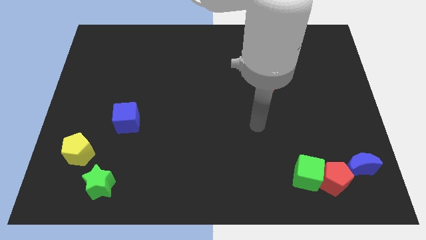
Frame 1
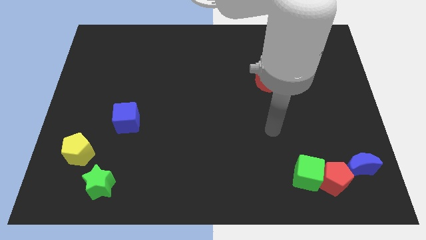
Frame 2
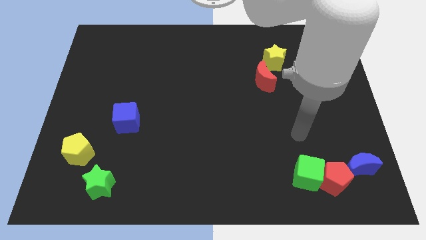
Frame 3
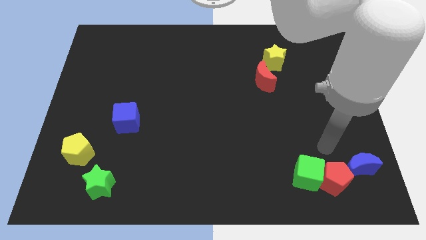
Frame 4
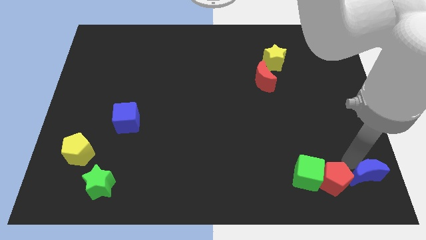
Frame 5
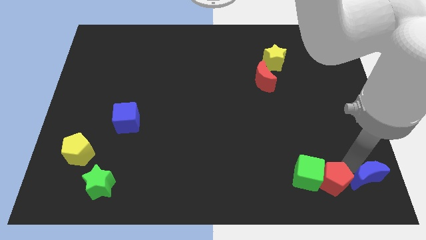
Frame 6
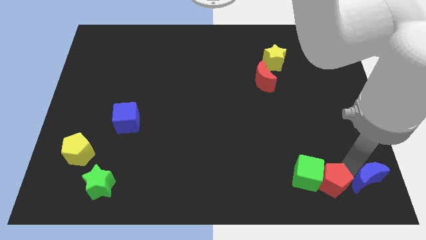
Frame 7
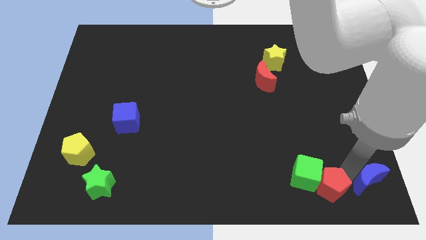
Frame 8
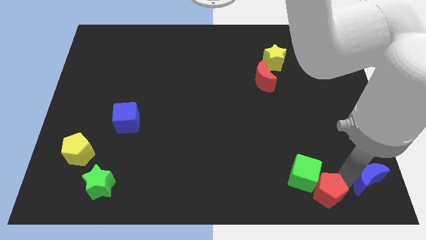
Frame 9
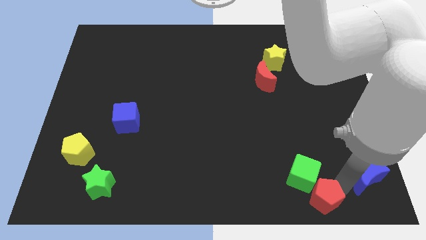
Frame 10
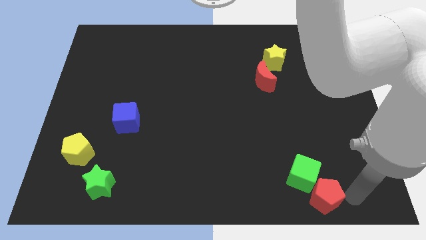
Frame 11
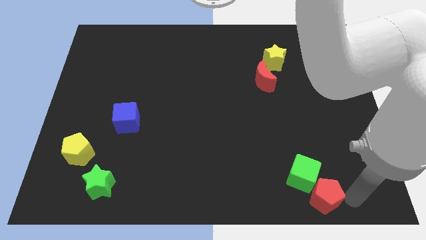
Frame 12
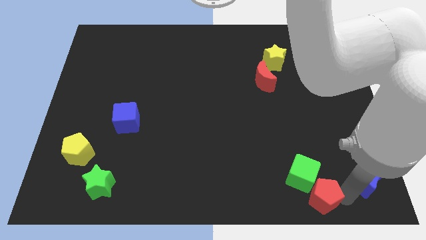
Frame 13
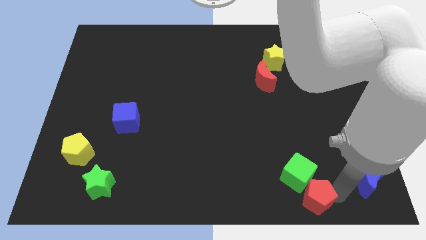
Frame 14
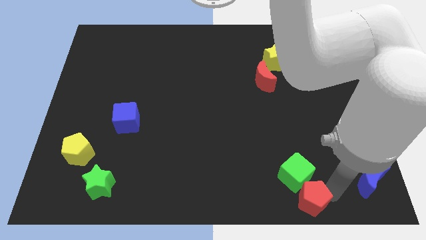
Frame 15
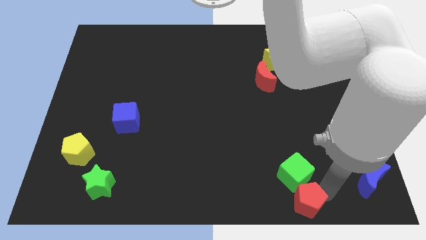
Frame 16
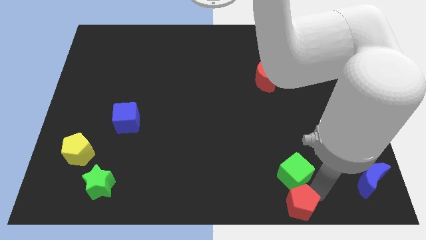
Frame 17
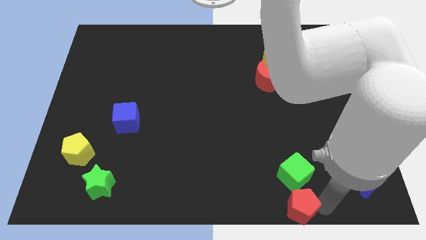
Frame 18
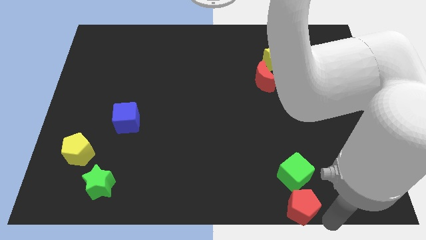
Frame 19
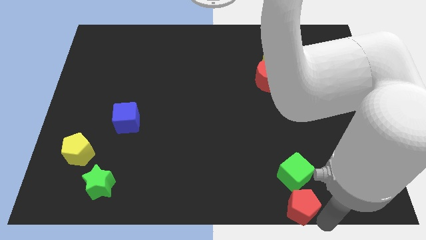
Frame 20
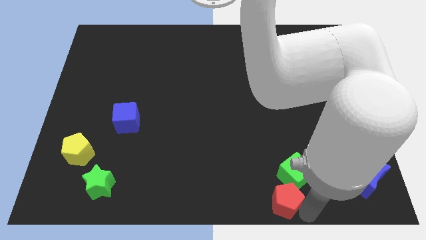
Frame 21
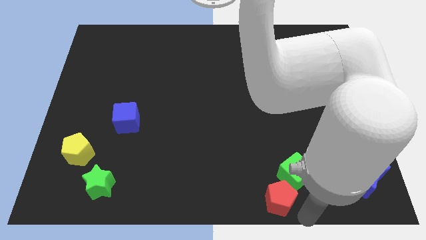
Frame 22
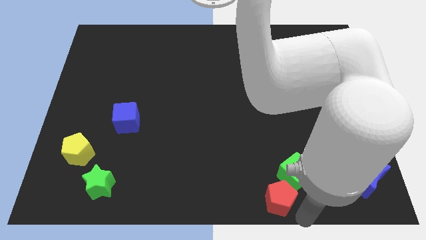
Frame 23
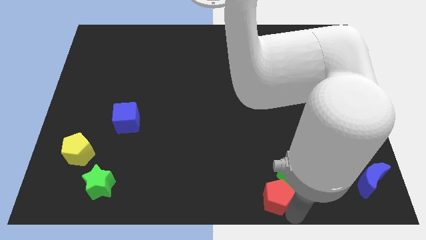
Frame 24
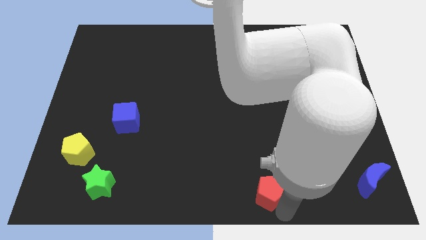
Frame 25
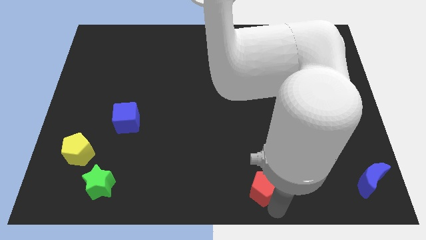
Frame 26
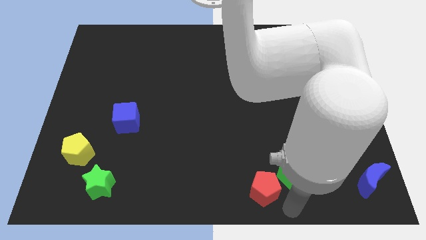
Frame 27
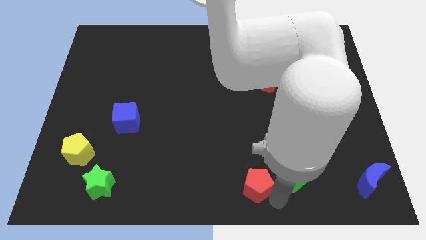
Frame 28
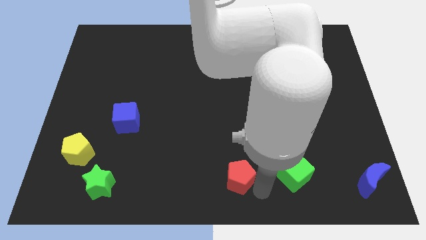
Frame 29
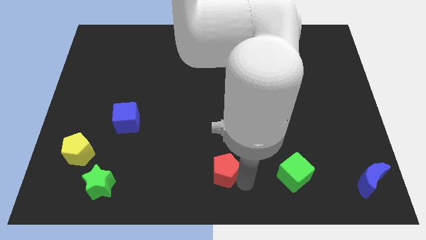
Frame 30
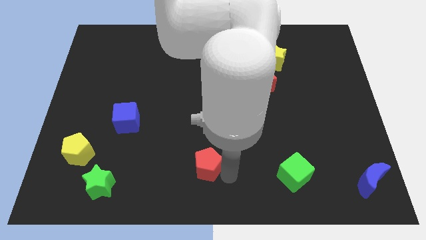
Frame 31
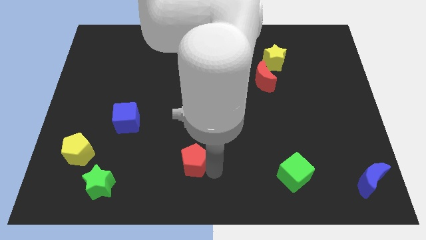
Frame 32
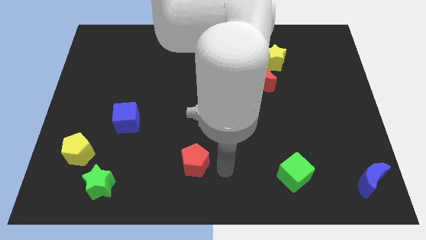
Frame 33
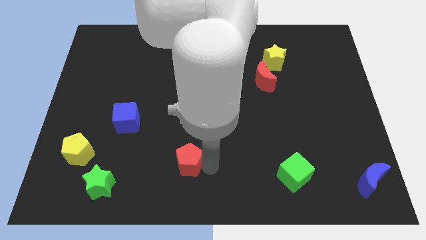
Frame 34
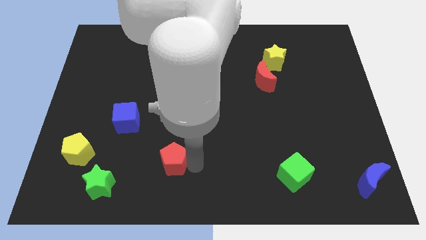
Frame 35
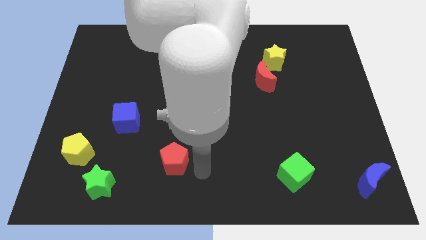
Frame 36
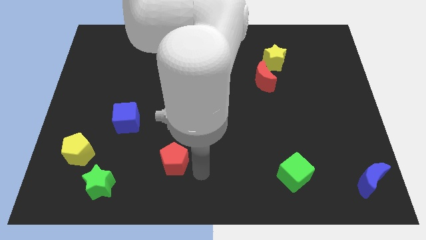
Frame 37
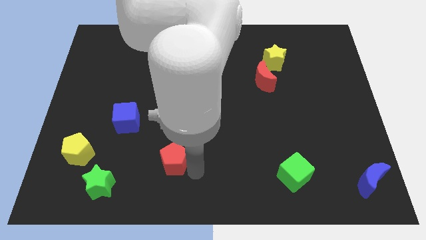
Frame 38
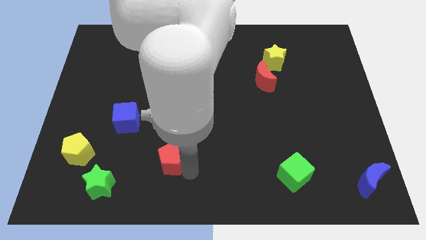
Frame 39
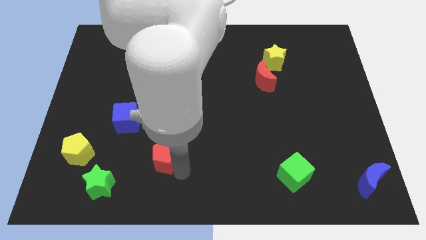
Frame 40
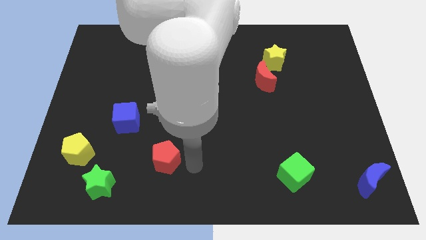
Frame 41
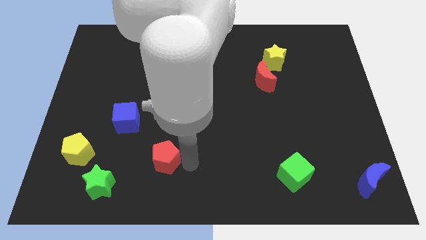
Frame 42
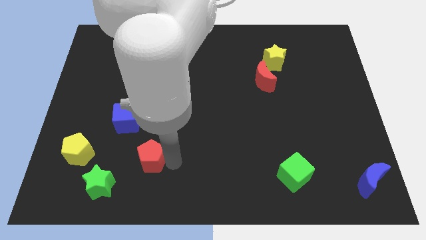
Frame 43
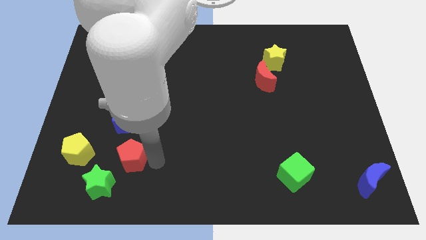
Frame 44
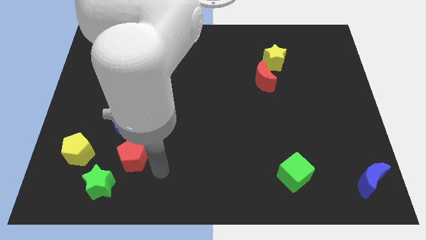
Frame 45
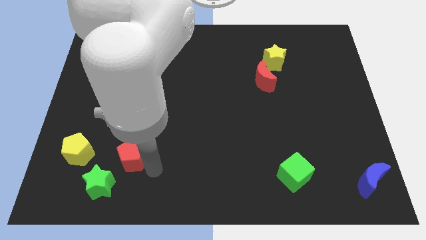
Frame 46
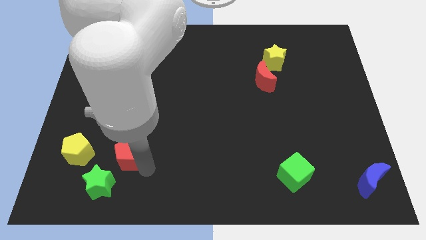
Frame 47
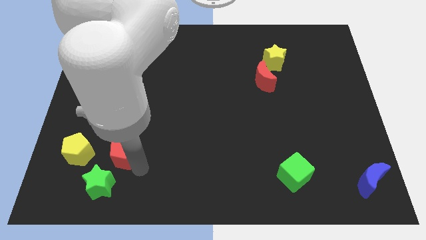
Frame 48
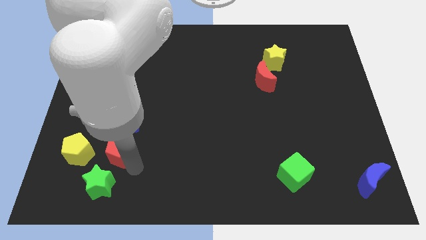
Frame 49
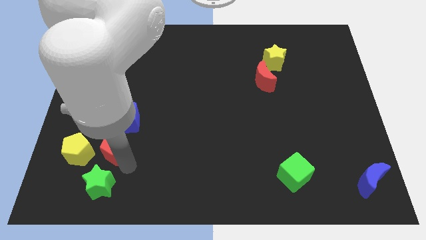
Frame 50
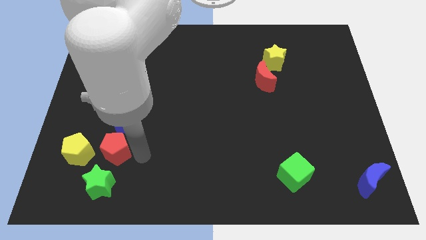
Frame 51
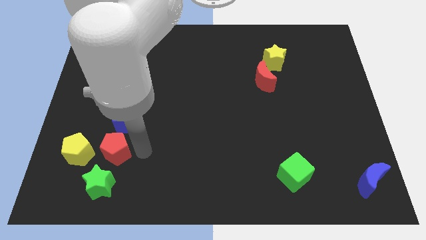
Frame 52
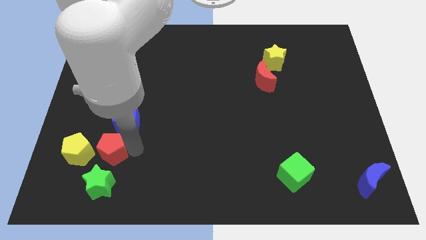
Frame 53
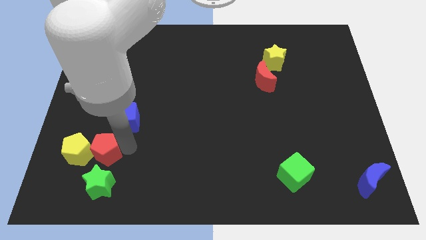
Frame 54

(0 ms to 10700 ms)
move the red pentagon close to the yellow pentagon

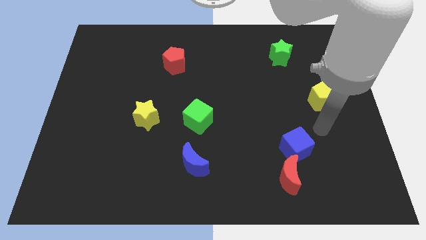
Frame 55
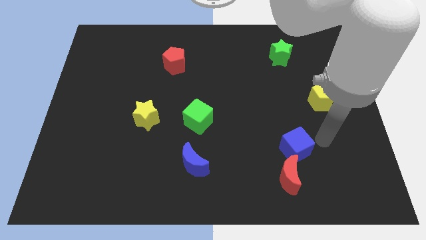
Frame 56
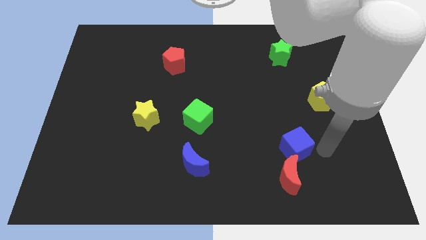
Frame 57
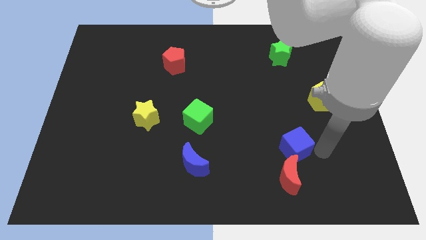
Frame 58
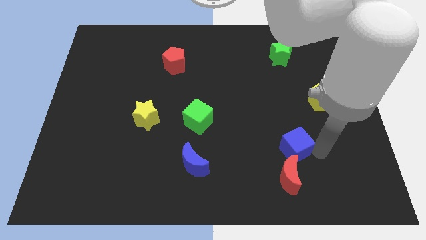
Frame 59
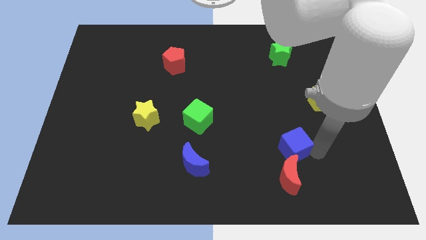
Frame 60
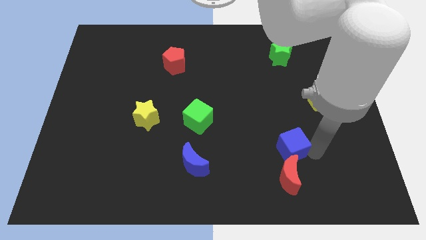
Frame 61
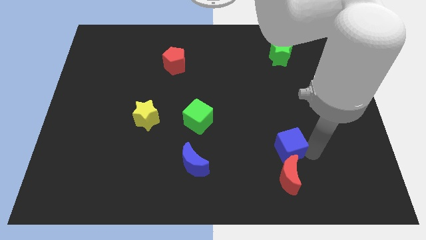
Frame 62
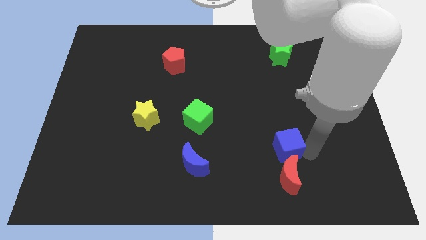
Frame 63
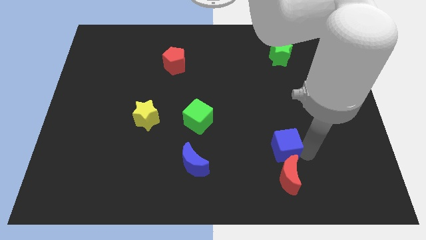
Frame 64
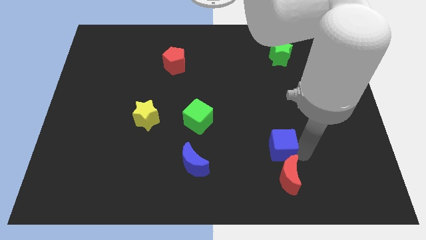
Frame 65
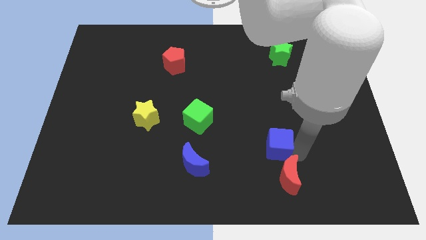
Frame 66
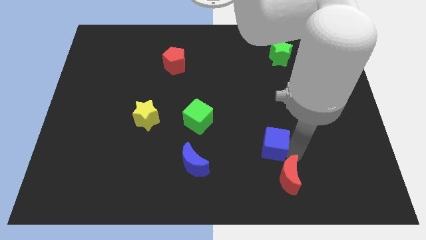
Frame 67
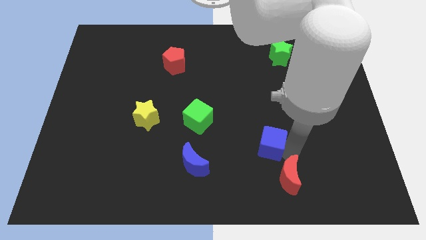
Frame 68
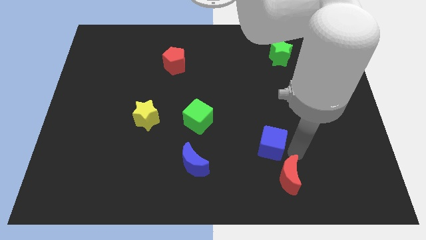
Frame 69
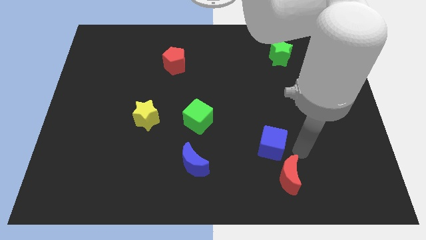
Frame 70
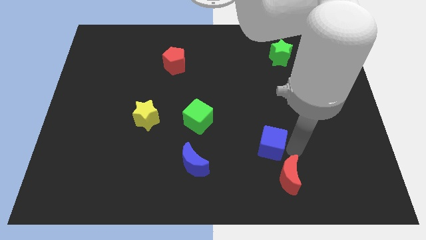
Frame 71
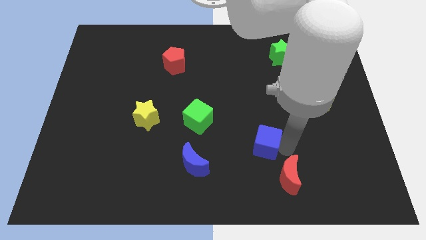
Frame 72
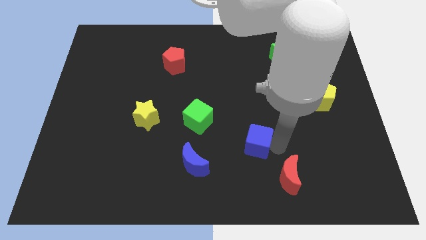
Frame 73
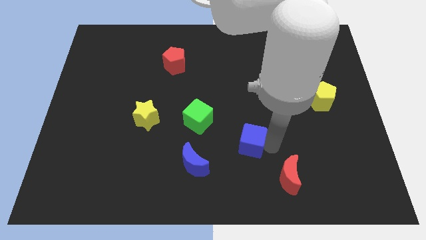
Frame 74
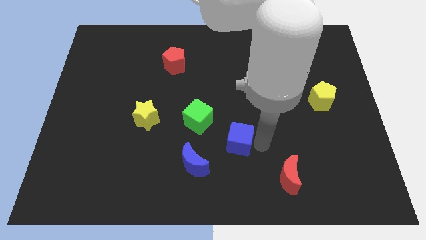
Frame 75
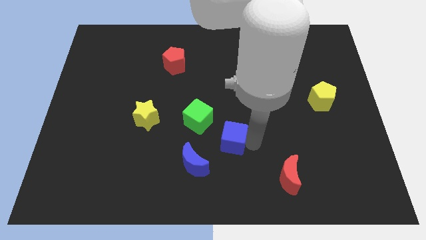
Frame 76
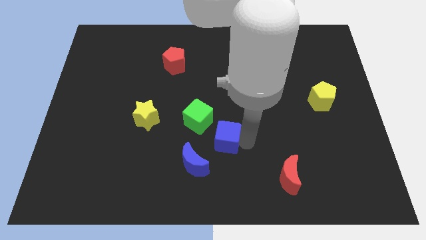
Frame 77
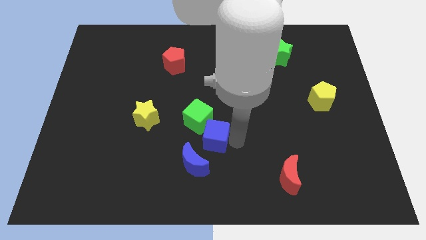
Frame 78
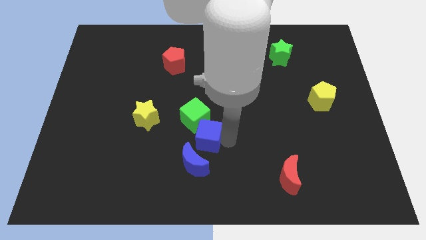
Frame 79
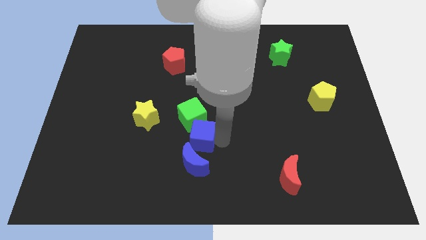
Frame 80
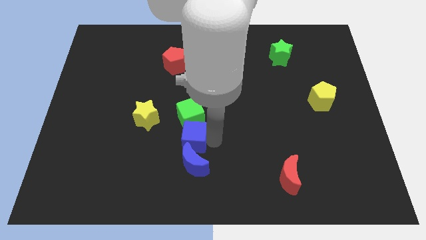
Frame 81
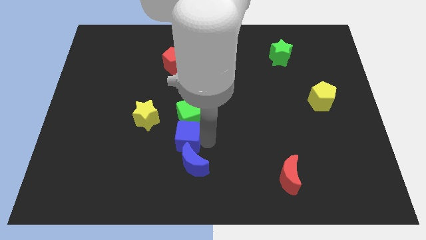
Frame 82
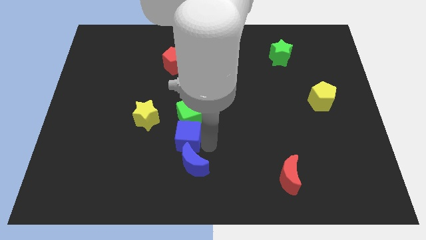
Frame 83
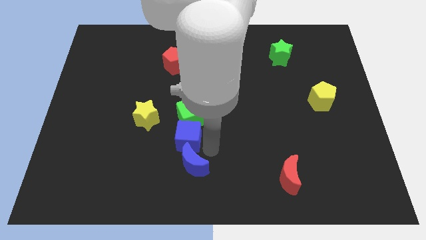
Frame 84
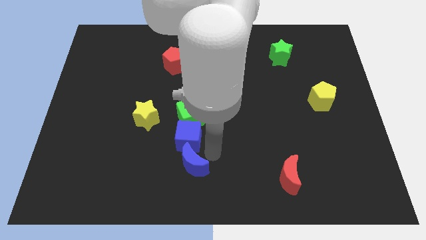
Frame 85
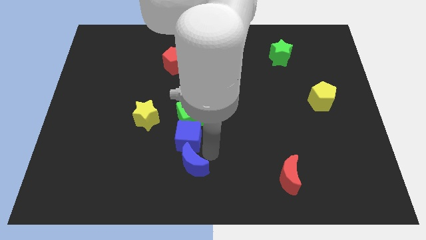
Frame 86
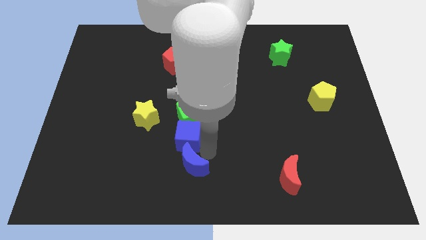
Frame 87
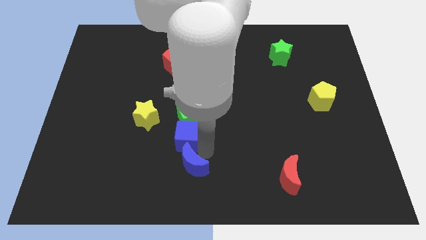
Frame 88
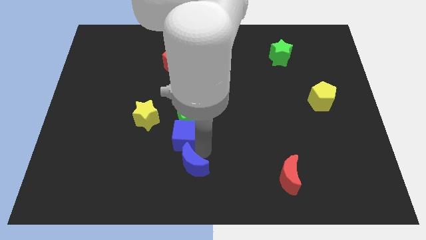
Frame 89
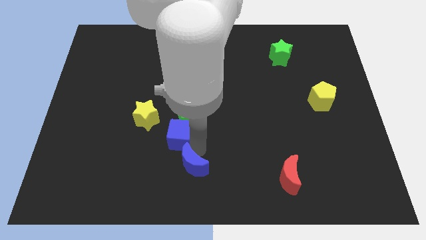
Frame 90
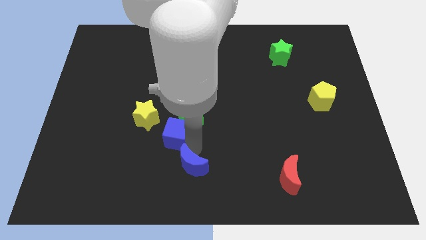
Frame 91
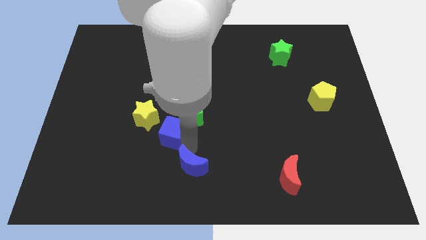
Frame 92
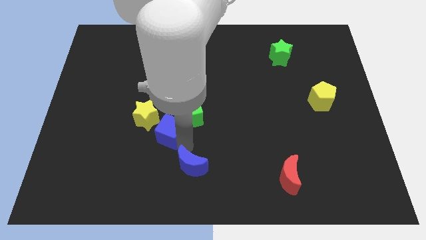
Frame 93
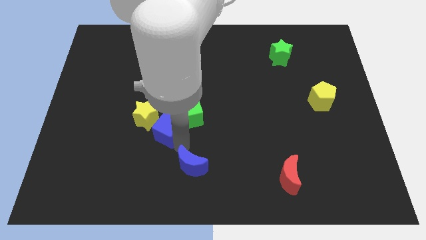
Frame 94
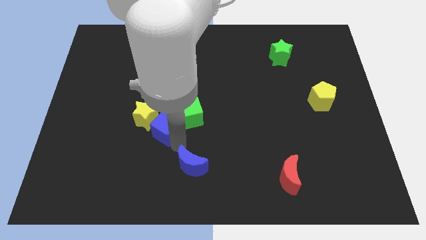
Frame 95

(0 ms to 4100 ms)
slide the blue cube close to the yellow star
